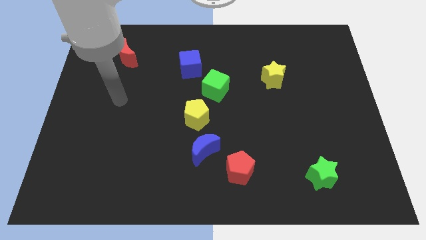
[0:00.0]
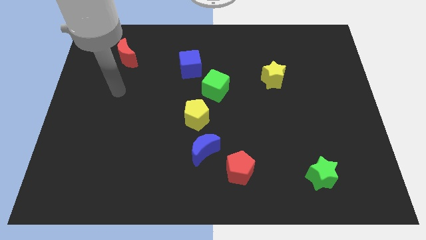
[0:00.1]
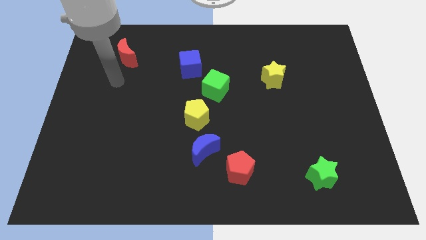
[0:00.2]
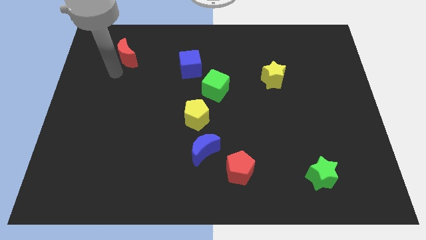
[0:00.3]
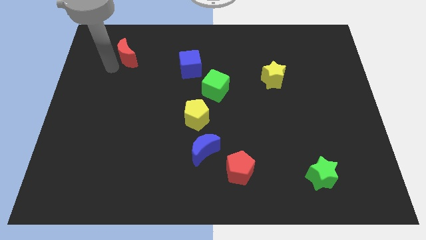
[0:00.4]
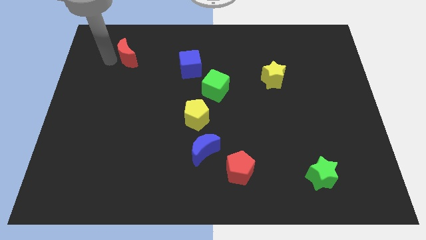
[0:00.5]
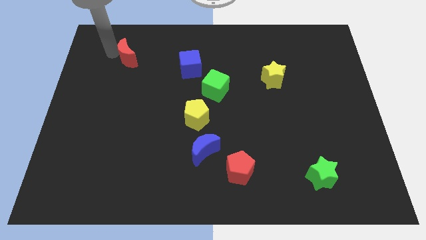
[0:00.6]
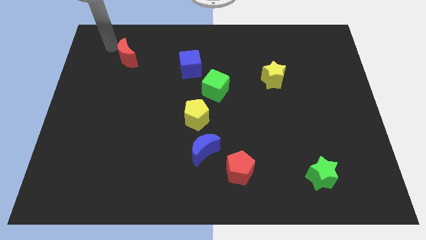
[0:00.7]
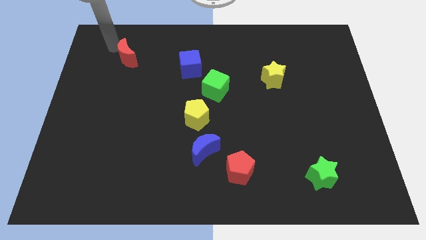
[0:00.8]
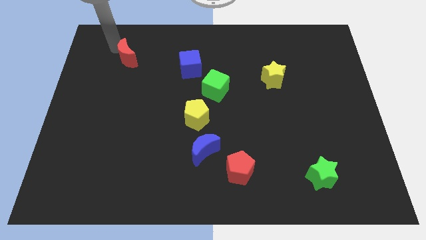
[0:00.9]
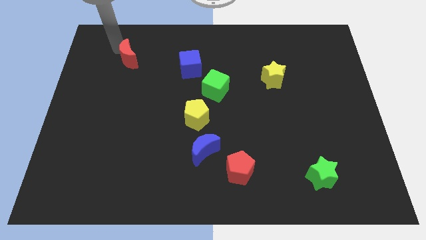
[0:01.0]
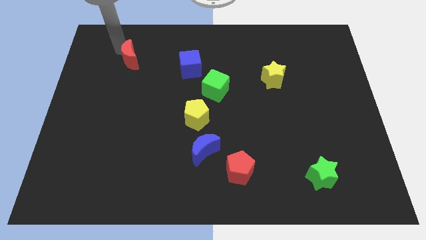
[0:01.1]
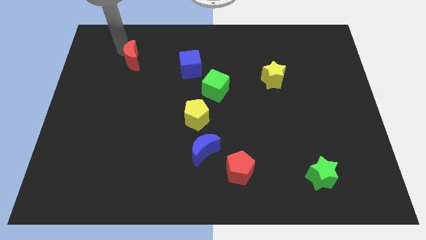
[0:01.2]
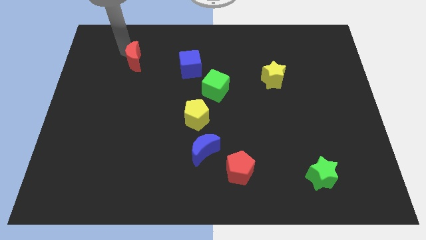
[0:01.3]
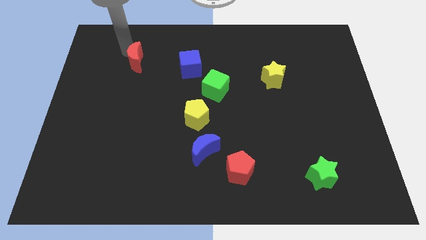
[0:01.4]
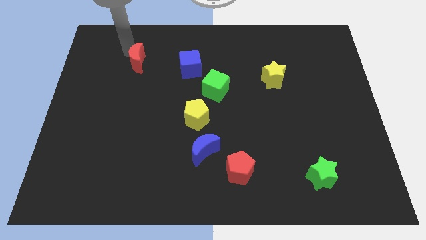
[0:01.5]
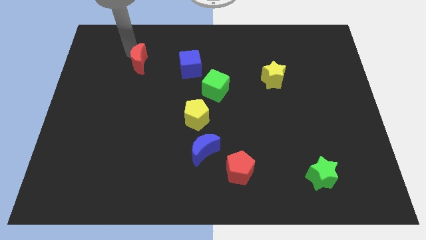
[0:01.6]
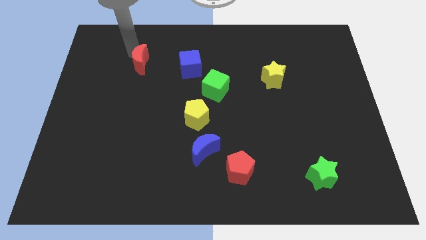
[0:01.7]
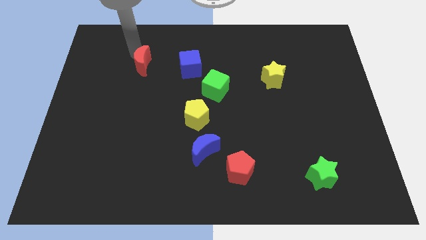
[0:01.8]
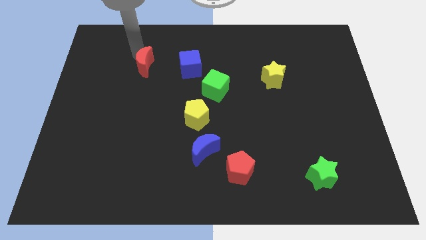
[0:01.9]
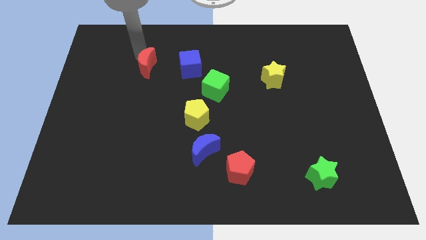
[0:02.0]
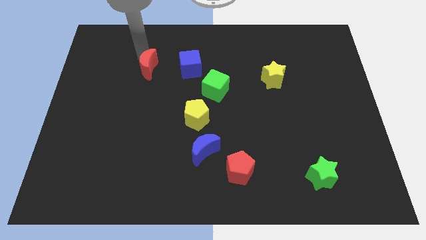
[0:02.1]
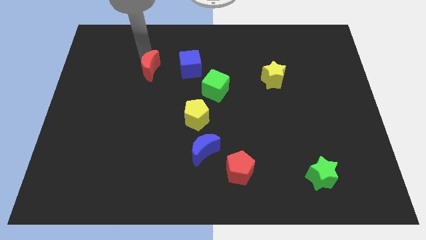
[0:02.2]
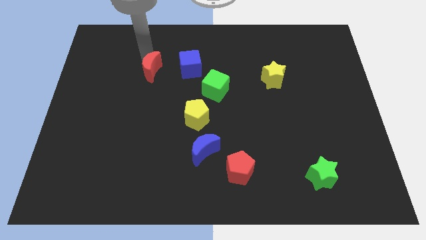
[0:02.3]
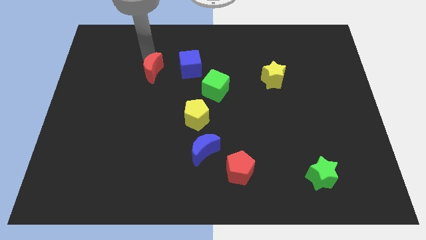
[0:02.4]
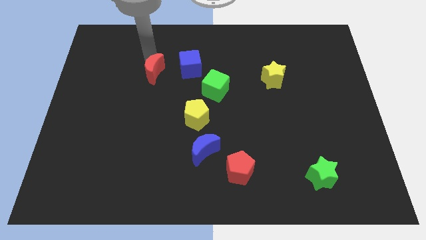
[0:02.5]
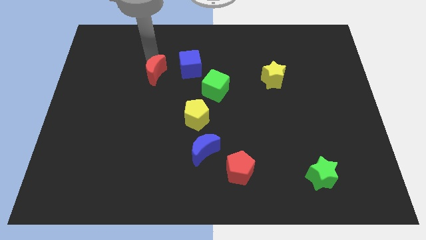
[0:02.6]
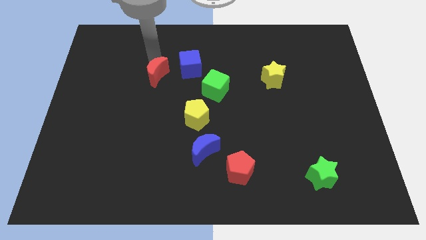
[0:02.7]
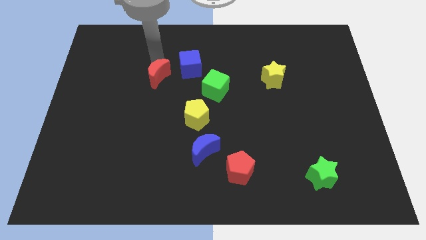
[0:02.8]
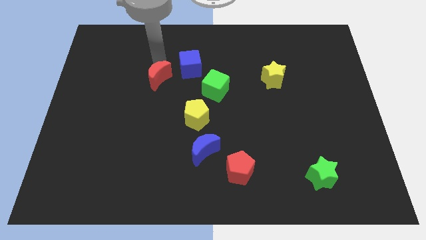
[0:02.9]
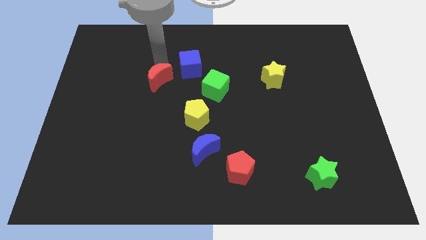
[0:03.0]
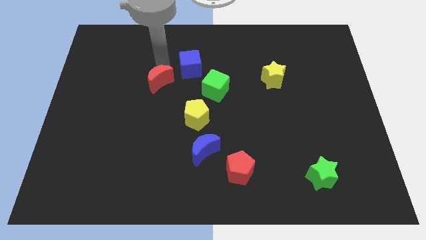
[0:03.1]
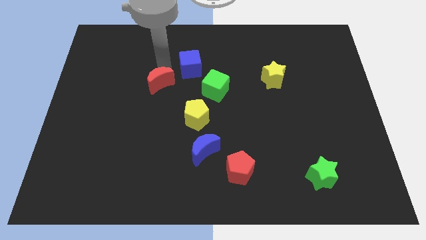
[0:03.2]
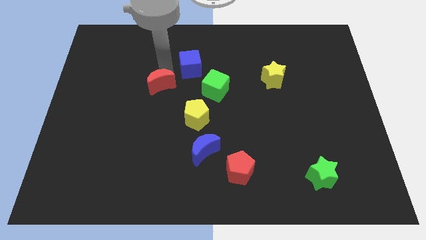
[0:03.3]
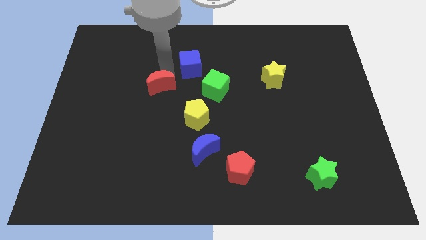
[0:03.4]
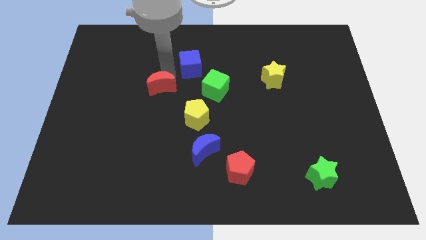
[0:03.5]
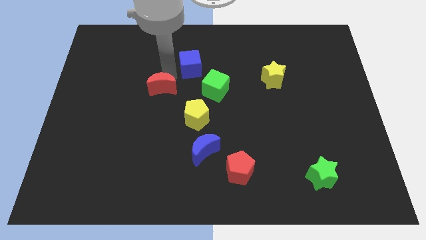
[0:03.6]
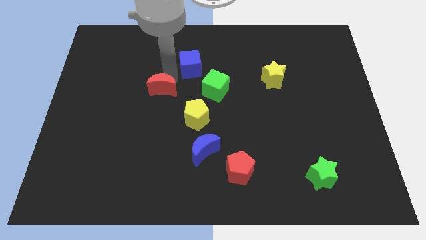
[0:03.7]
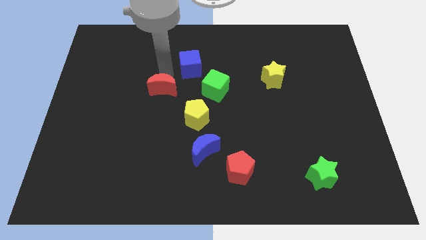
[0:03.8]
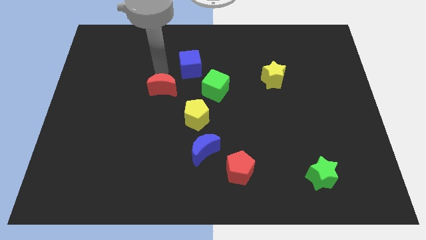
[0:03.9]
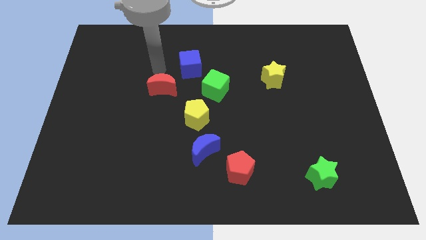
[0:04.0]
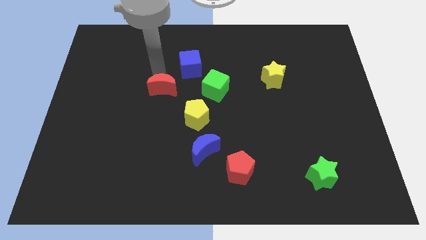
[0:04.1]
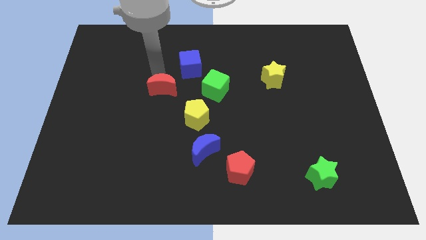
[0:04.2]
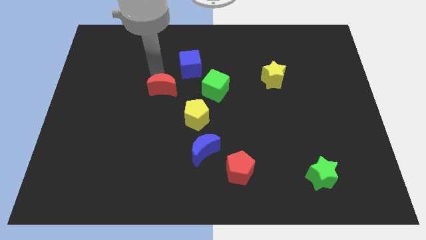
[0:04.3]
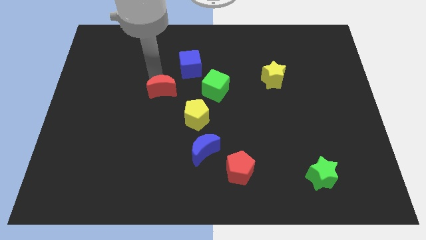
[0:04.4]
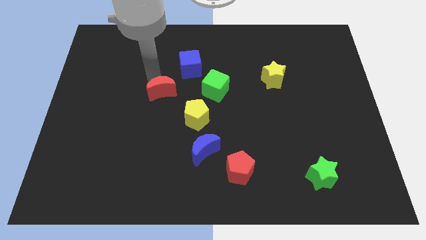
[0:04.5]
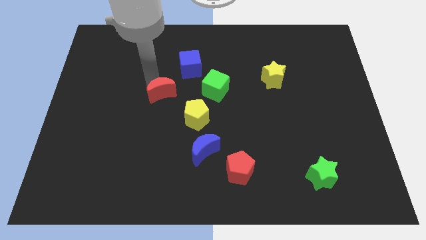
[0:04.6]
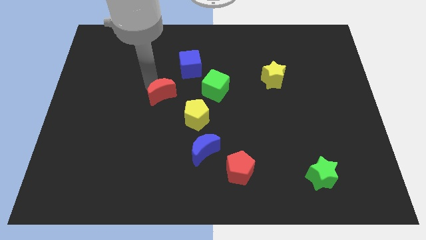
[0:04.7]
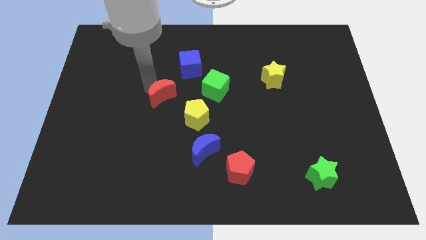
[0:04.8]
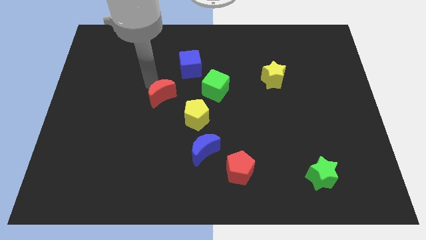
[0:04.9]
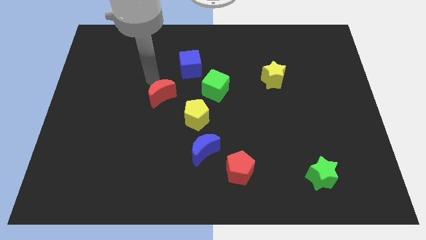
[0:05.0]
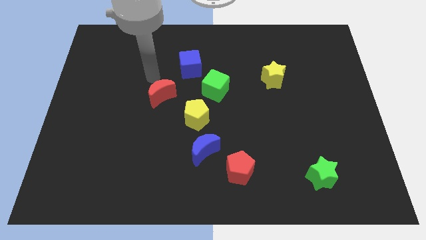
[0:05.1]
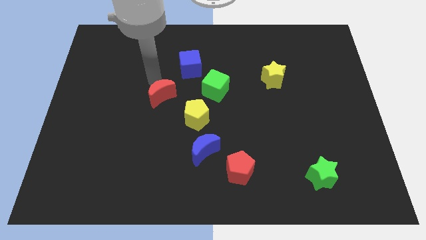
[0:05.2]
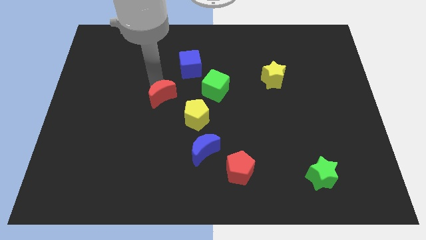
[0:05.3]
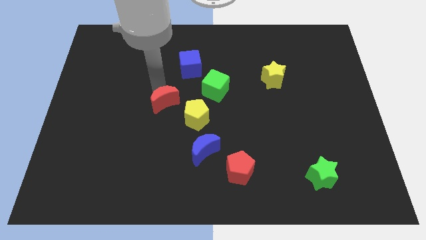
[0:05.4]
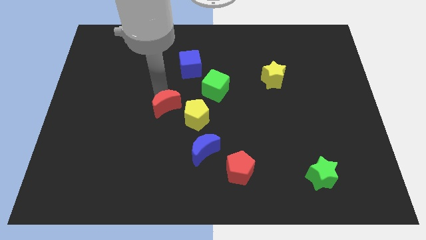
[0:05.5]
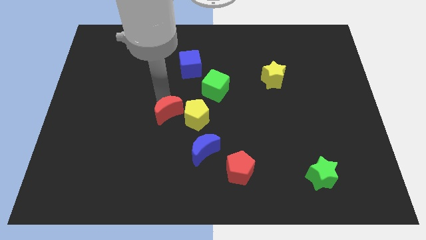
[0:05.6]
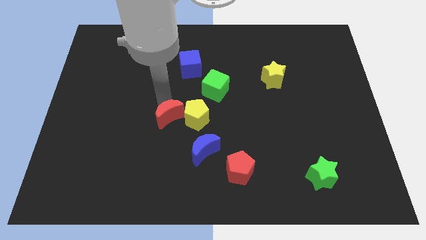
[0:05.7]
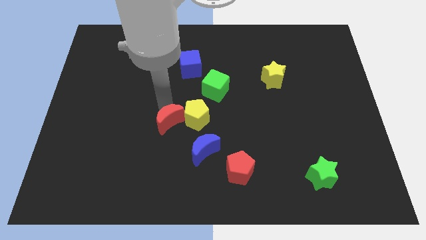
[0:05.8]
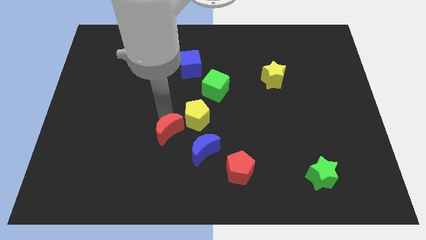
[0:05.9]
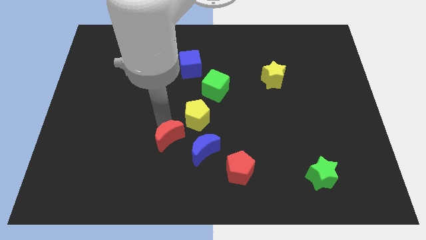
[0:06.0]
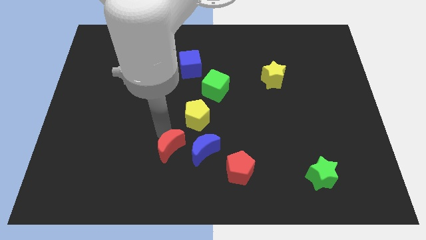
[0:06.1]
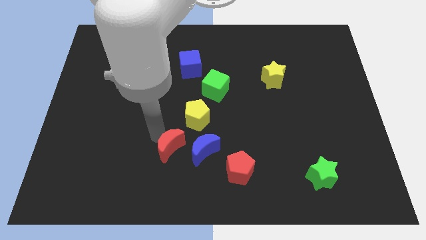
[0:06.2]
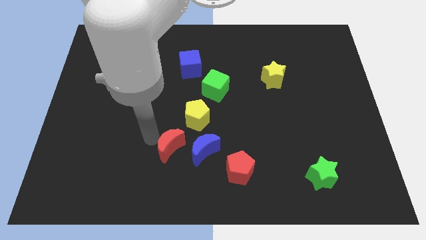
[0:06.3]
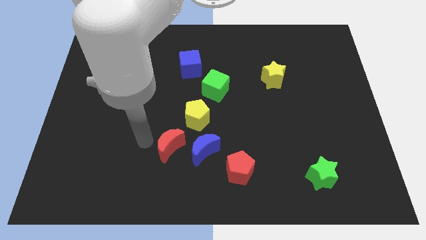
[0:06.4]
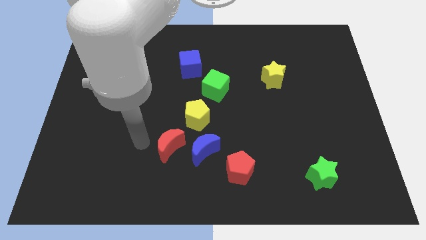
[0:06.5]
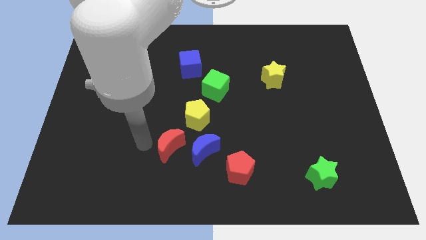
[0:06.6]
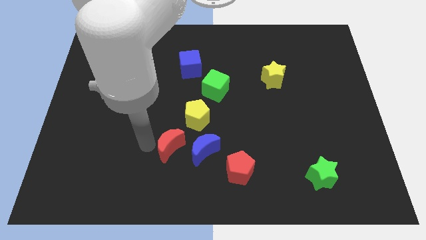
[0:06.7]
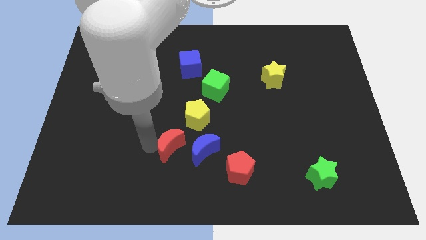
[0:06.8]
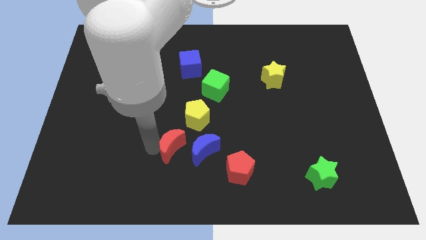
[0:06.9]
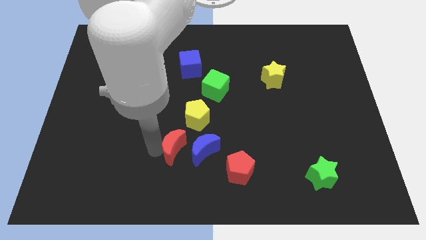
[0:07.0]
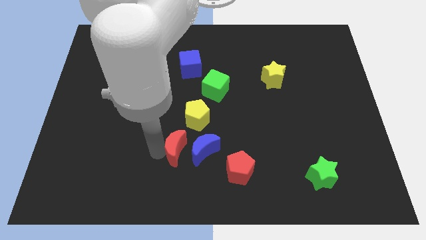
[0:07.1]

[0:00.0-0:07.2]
slide the red moon close to the blue moon
